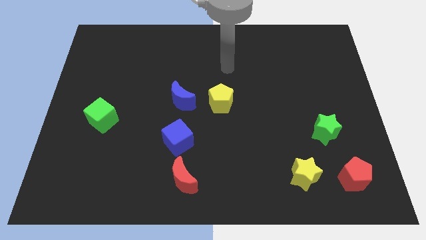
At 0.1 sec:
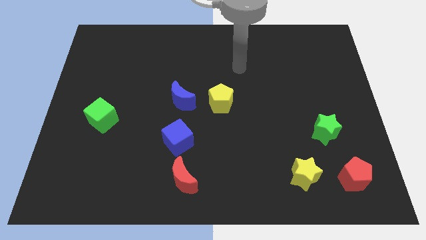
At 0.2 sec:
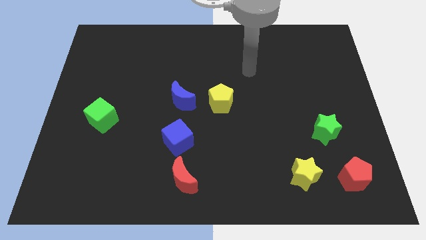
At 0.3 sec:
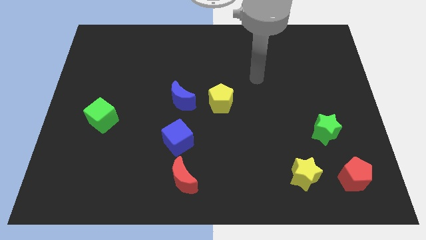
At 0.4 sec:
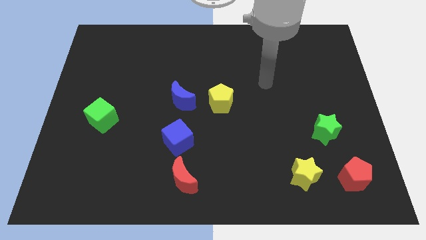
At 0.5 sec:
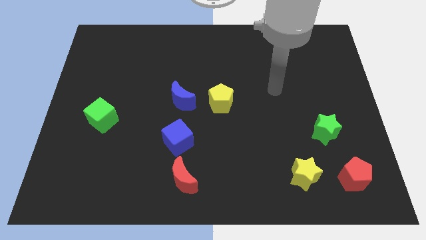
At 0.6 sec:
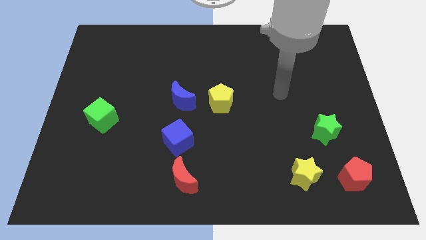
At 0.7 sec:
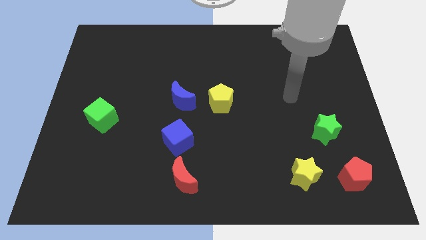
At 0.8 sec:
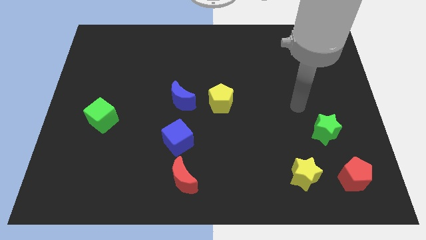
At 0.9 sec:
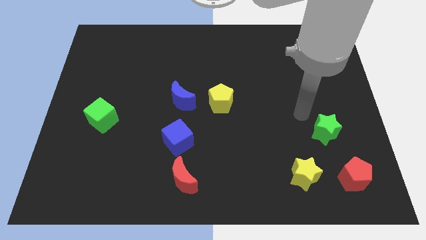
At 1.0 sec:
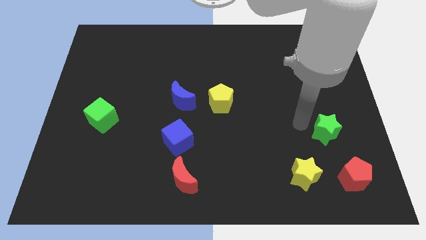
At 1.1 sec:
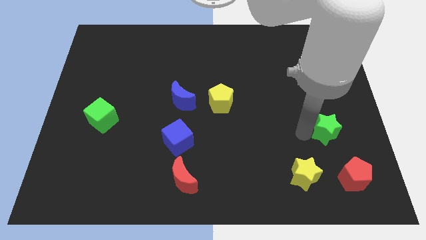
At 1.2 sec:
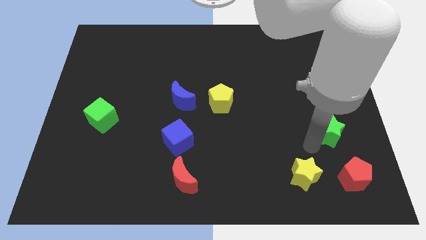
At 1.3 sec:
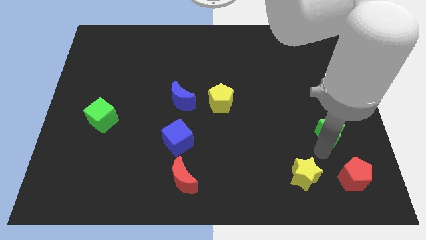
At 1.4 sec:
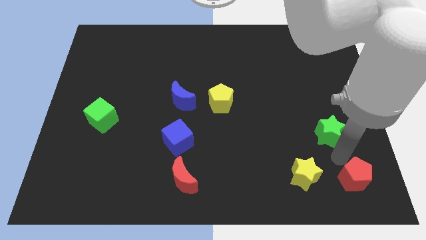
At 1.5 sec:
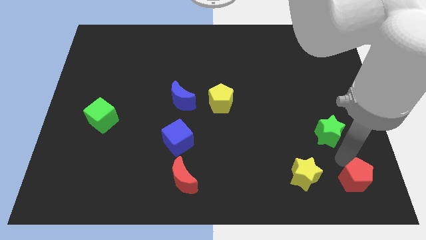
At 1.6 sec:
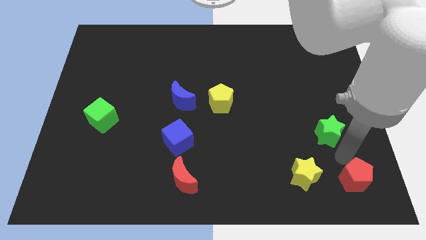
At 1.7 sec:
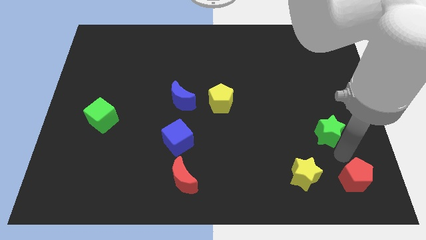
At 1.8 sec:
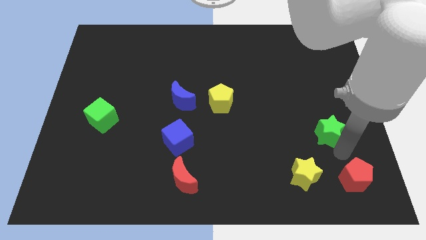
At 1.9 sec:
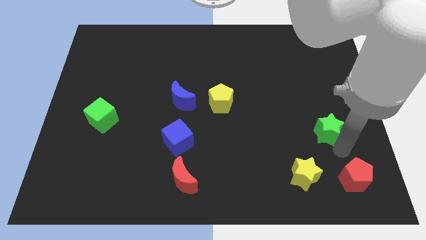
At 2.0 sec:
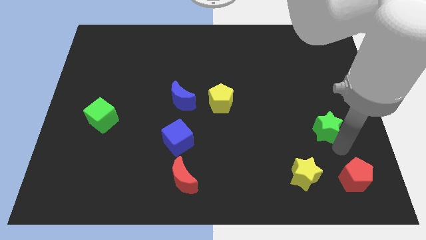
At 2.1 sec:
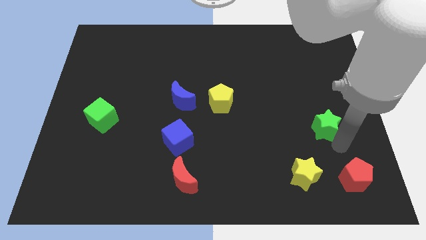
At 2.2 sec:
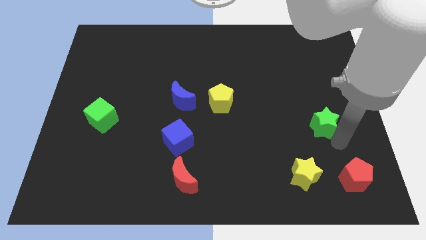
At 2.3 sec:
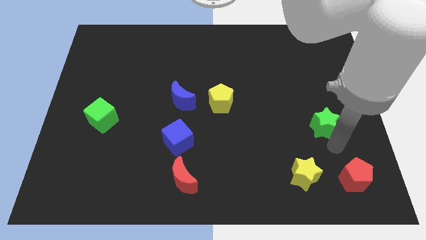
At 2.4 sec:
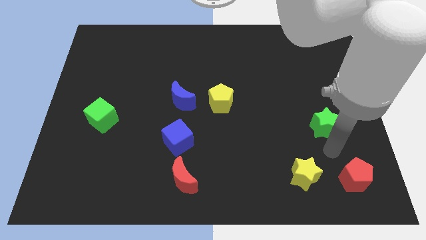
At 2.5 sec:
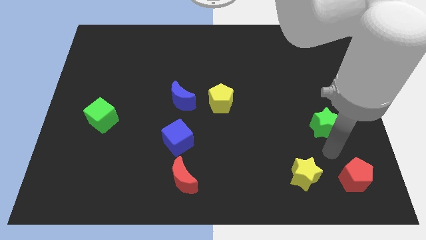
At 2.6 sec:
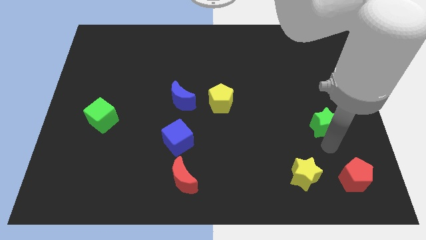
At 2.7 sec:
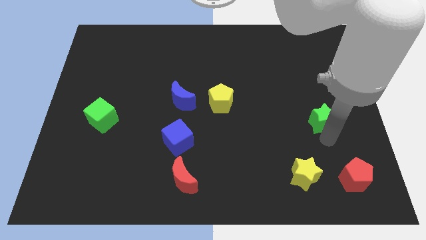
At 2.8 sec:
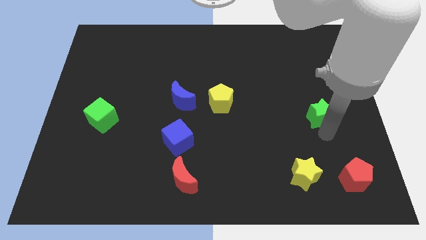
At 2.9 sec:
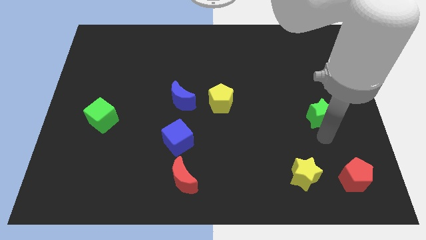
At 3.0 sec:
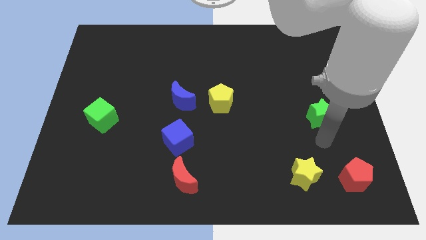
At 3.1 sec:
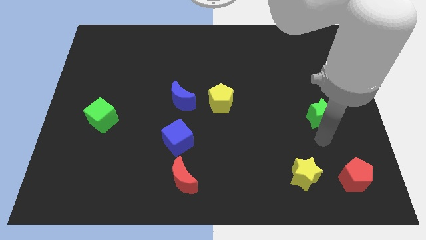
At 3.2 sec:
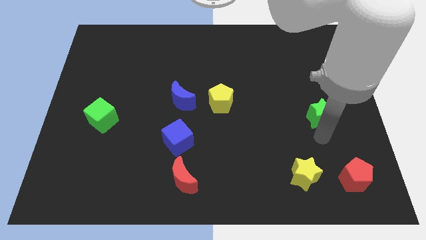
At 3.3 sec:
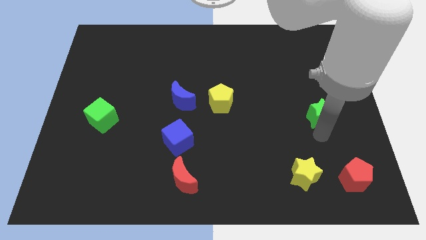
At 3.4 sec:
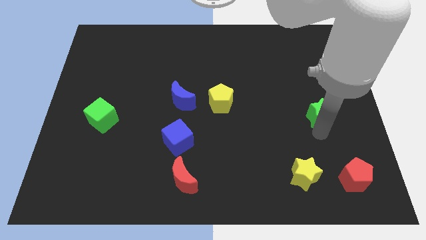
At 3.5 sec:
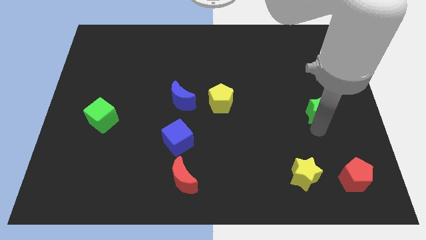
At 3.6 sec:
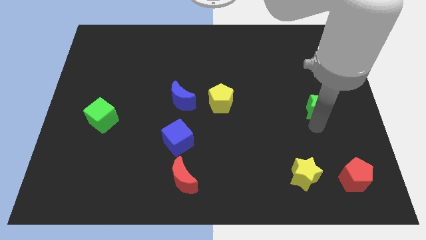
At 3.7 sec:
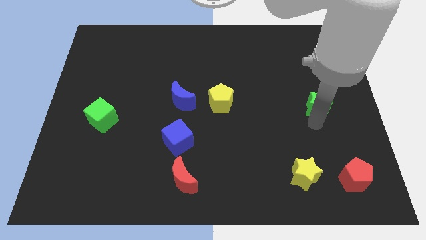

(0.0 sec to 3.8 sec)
move the green star up somewhat

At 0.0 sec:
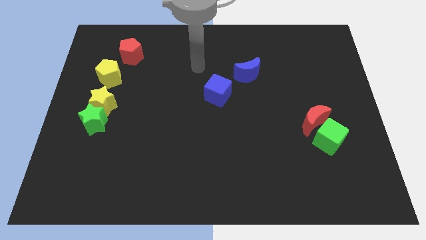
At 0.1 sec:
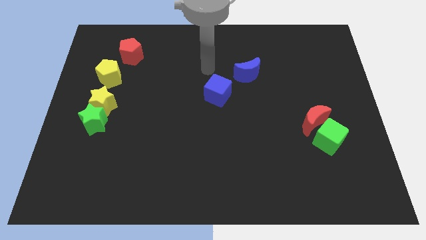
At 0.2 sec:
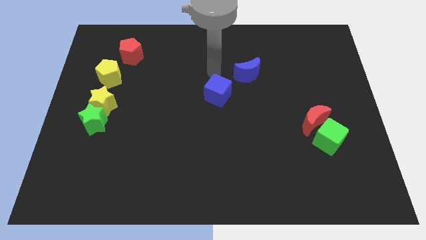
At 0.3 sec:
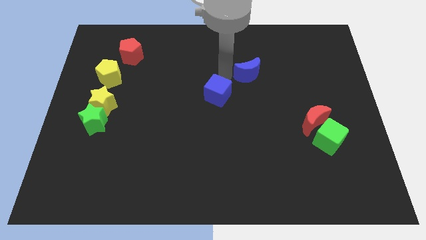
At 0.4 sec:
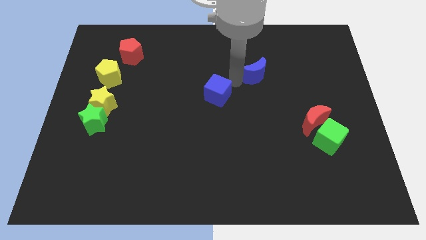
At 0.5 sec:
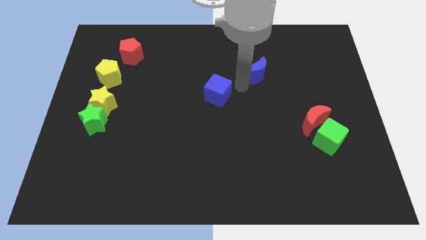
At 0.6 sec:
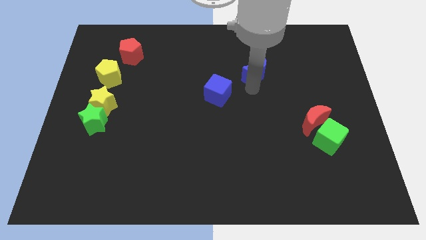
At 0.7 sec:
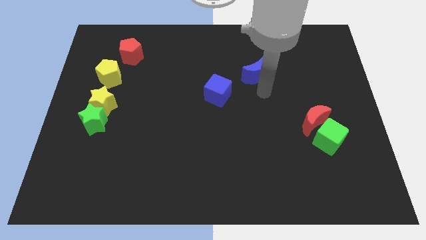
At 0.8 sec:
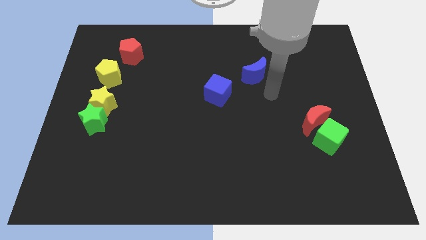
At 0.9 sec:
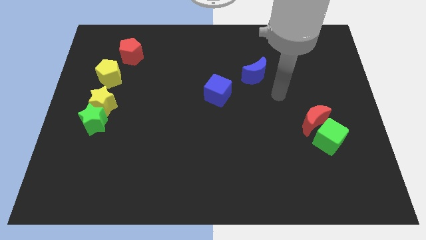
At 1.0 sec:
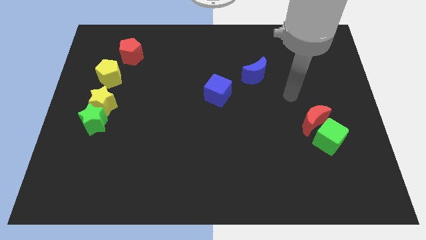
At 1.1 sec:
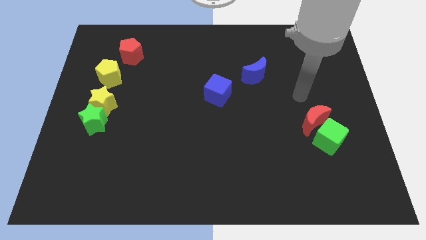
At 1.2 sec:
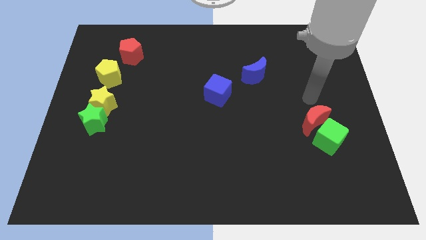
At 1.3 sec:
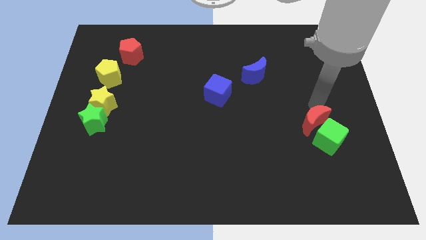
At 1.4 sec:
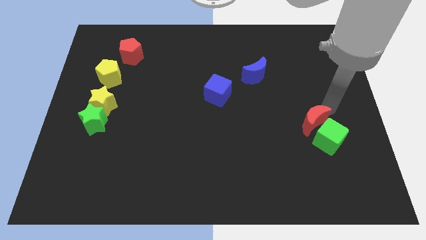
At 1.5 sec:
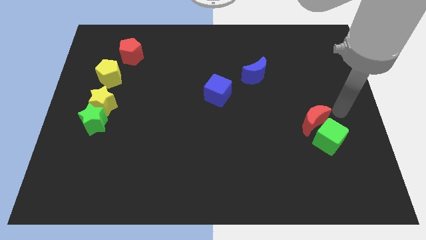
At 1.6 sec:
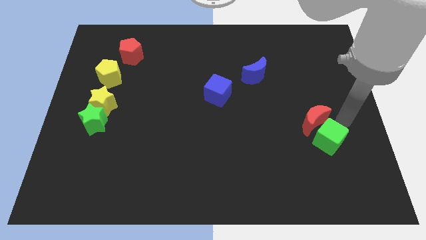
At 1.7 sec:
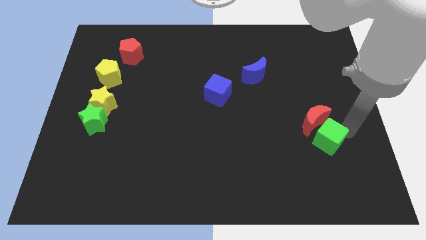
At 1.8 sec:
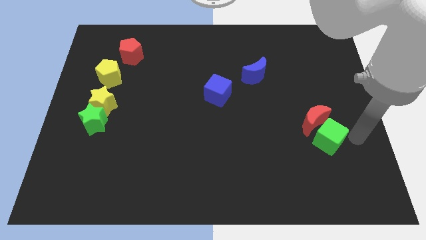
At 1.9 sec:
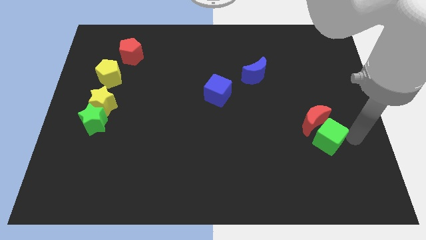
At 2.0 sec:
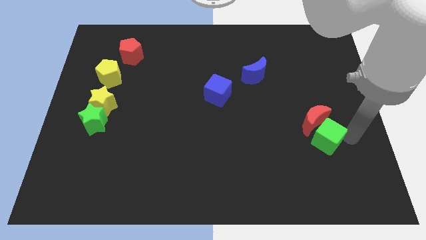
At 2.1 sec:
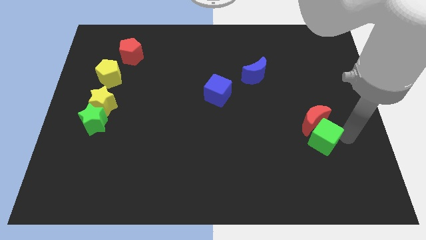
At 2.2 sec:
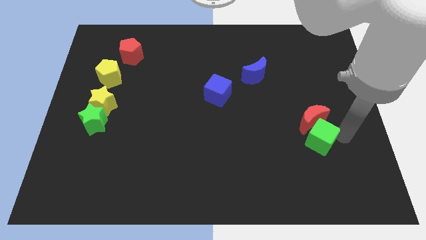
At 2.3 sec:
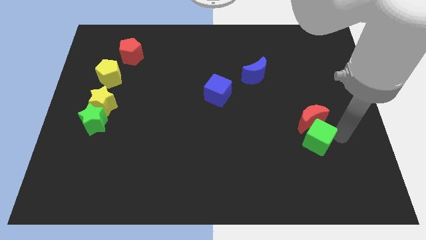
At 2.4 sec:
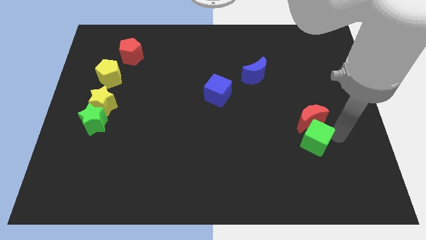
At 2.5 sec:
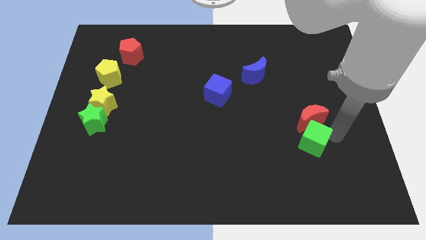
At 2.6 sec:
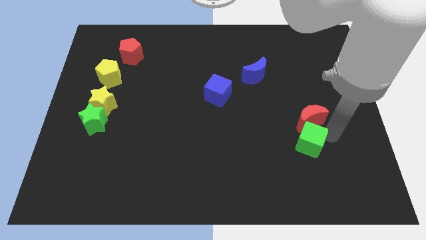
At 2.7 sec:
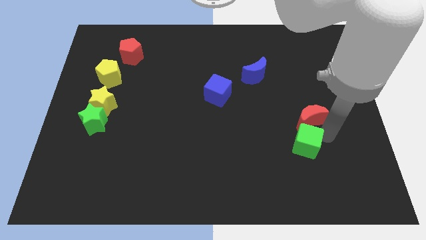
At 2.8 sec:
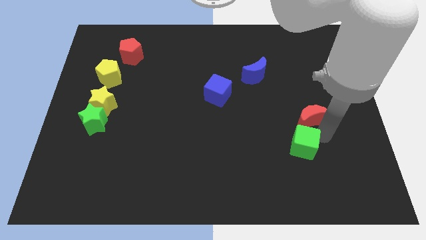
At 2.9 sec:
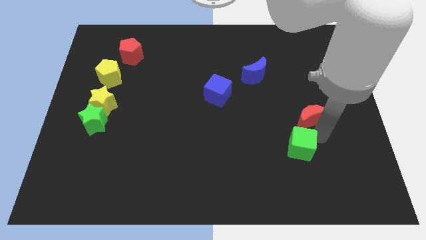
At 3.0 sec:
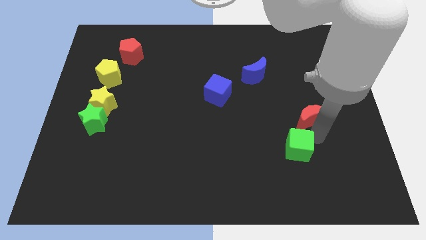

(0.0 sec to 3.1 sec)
slightly push the green cube left

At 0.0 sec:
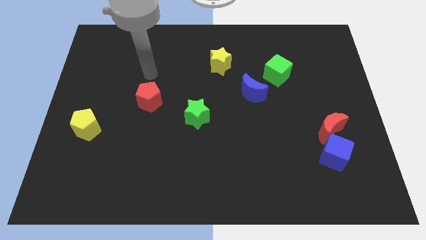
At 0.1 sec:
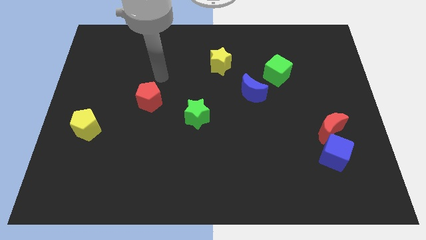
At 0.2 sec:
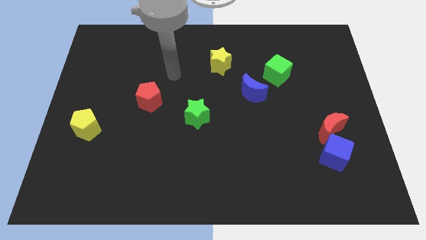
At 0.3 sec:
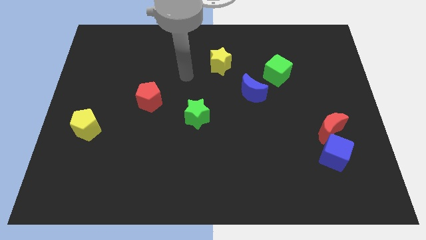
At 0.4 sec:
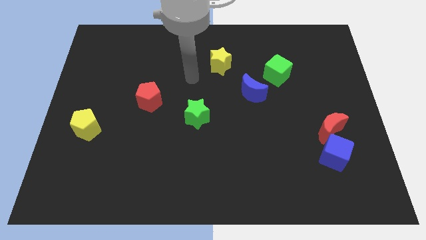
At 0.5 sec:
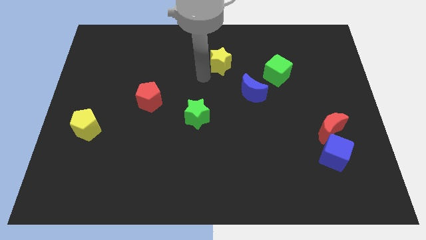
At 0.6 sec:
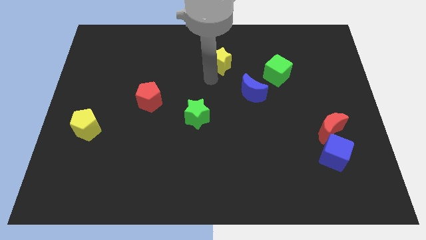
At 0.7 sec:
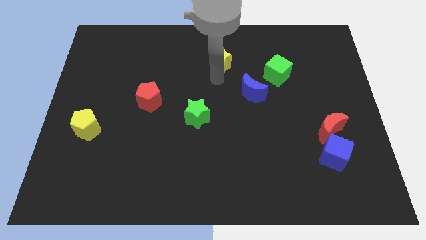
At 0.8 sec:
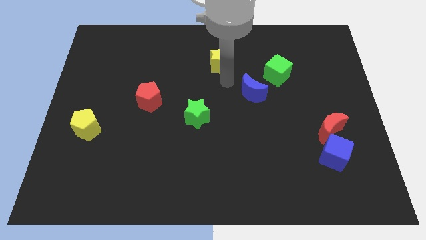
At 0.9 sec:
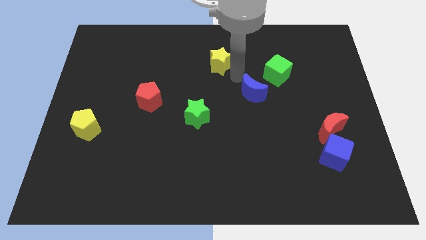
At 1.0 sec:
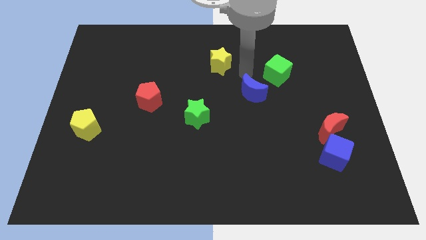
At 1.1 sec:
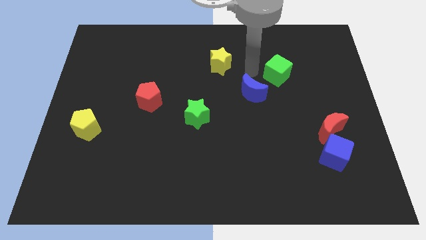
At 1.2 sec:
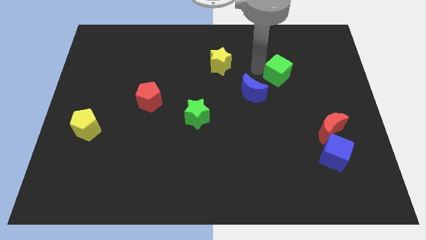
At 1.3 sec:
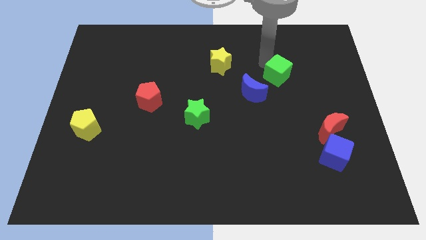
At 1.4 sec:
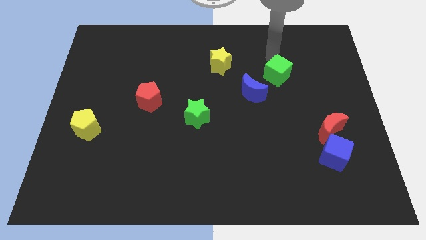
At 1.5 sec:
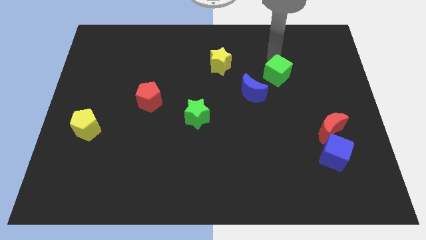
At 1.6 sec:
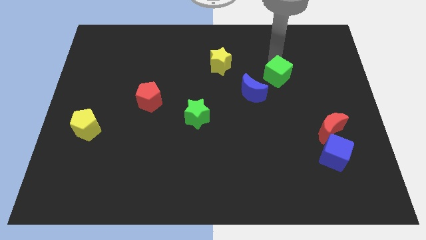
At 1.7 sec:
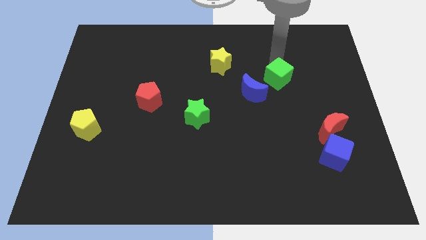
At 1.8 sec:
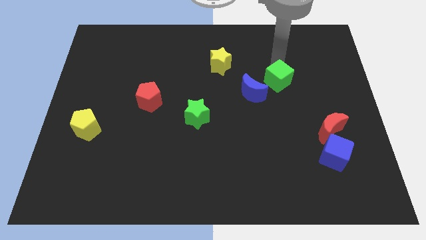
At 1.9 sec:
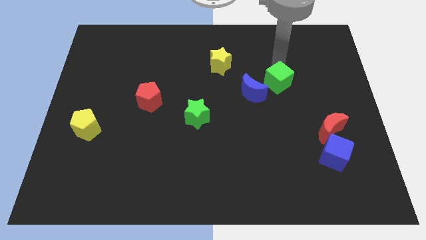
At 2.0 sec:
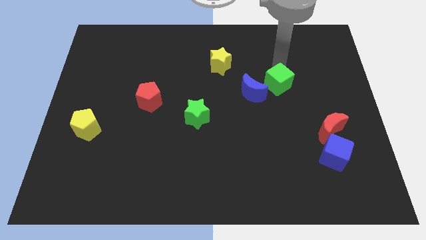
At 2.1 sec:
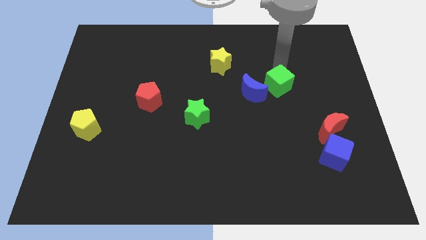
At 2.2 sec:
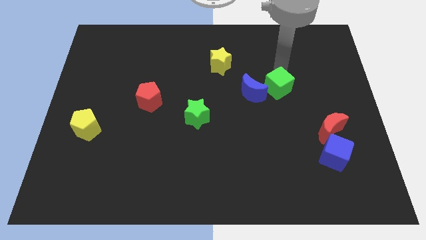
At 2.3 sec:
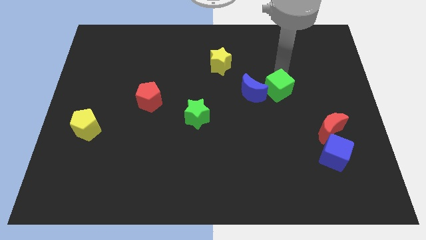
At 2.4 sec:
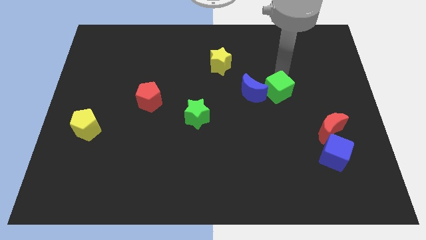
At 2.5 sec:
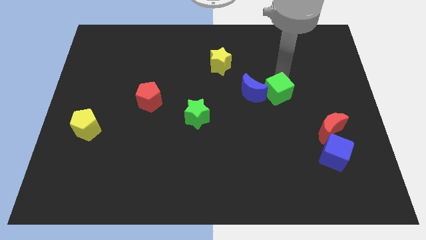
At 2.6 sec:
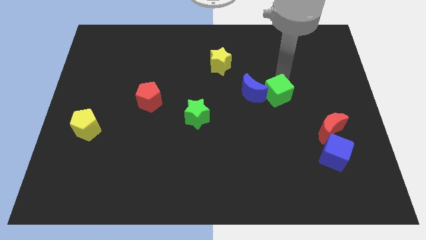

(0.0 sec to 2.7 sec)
slightly push the green cube downwards
